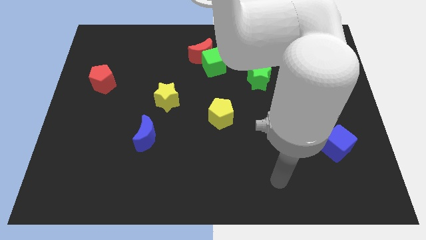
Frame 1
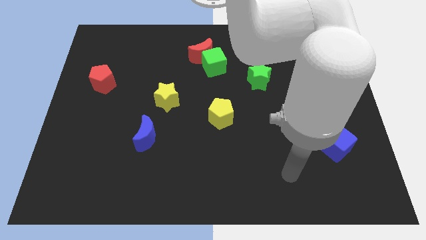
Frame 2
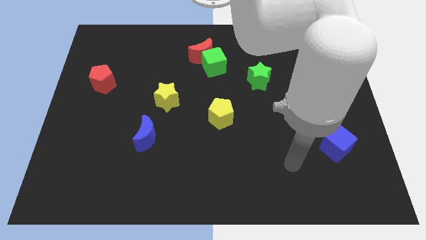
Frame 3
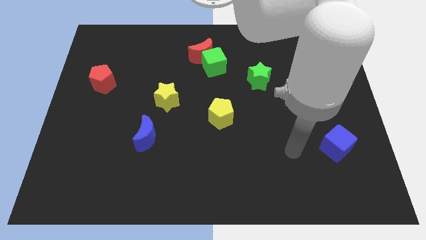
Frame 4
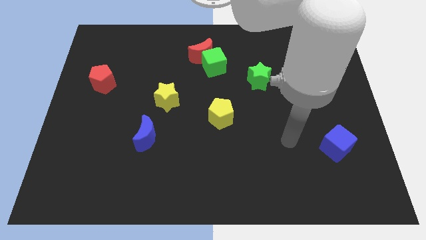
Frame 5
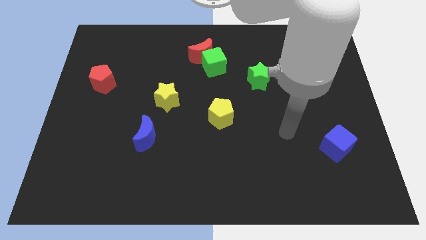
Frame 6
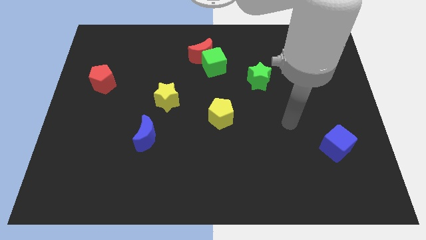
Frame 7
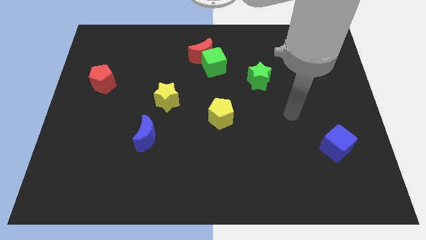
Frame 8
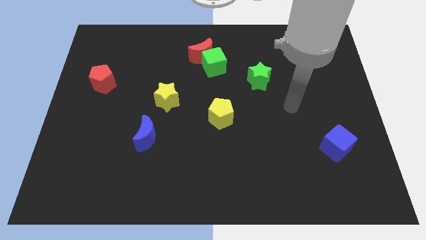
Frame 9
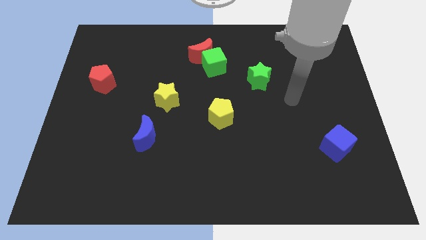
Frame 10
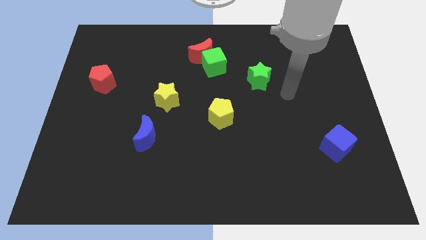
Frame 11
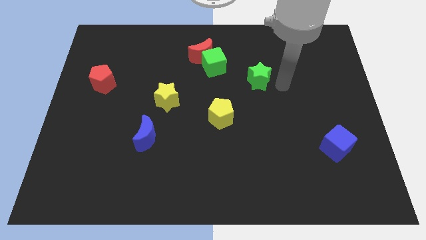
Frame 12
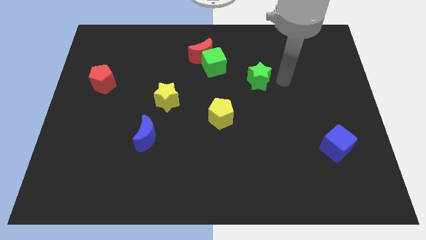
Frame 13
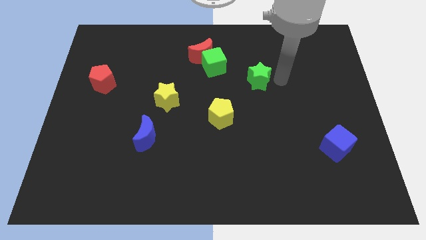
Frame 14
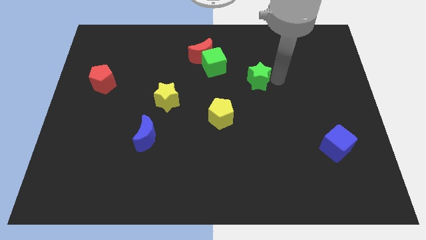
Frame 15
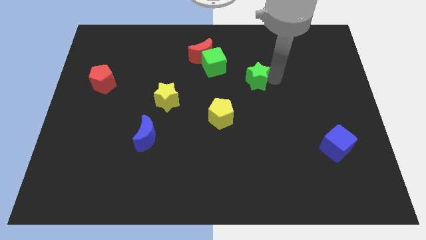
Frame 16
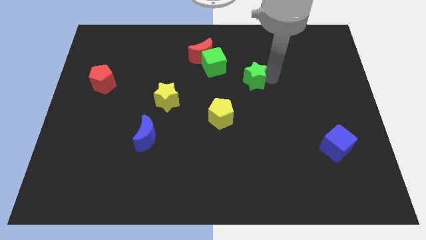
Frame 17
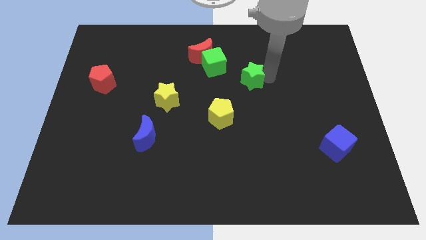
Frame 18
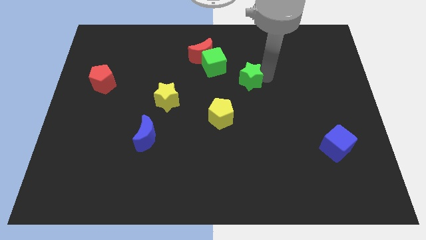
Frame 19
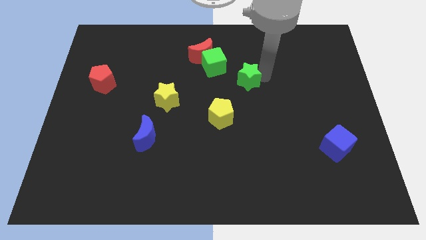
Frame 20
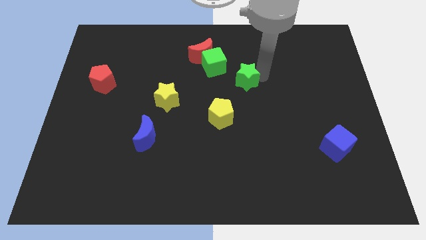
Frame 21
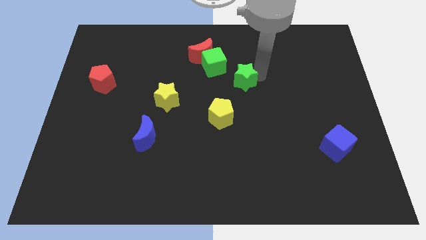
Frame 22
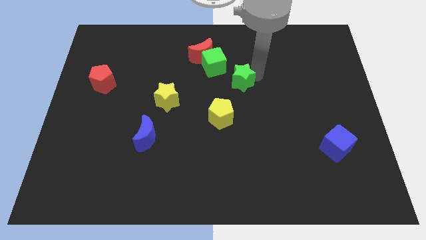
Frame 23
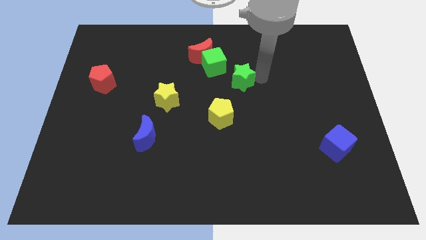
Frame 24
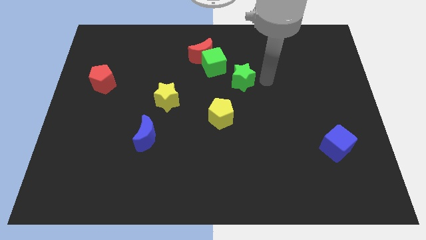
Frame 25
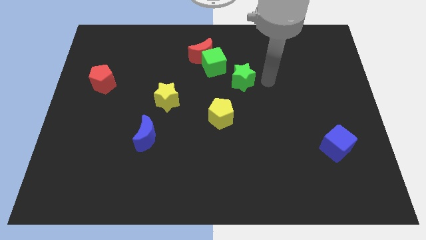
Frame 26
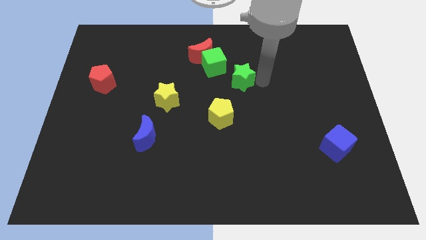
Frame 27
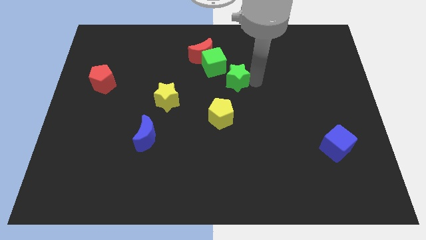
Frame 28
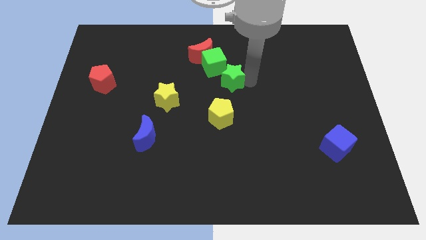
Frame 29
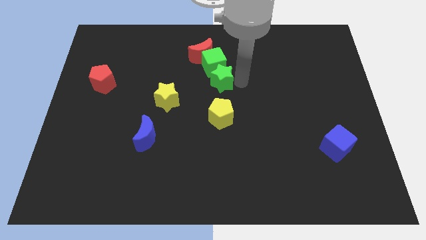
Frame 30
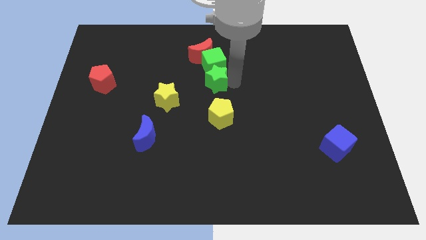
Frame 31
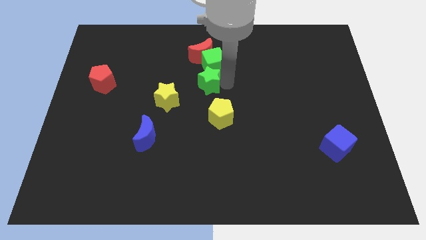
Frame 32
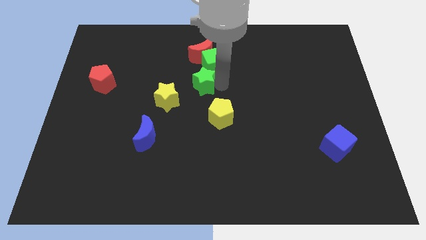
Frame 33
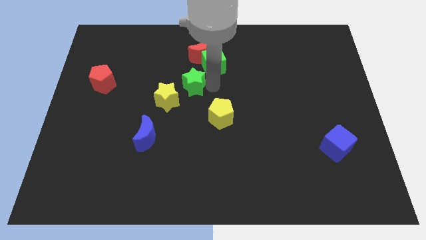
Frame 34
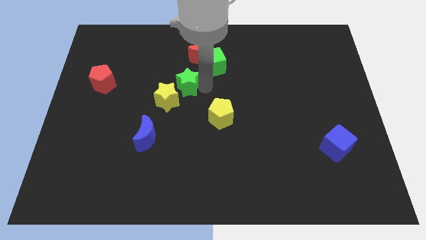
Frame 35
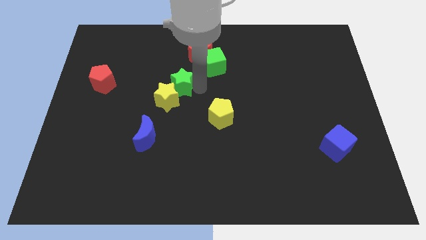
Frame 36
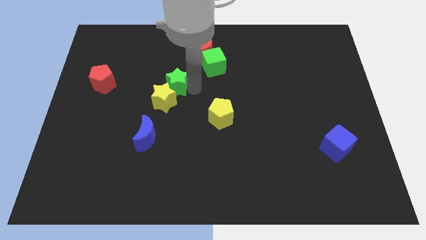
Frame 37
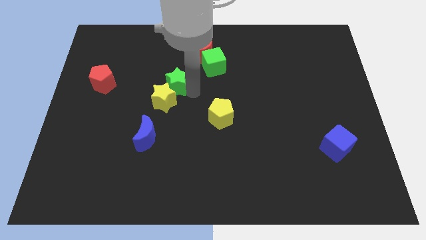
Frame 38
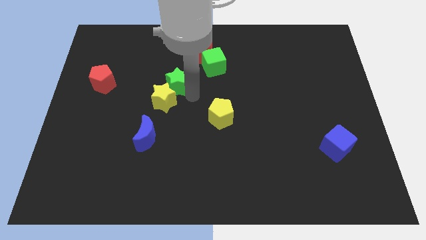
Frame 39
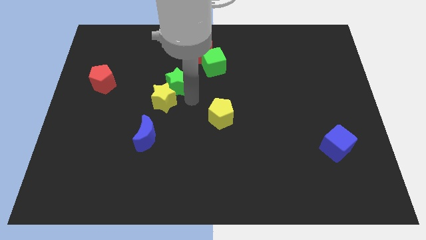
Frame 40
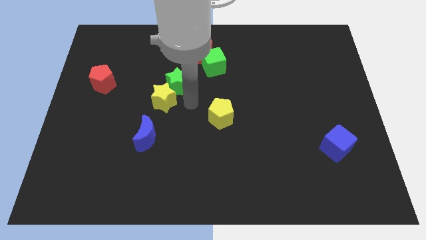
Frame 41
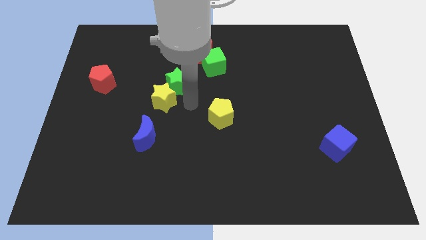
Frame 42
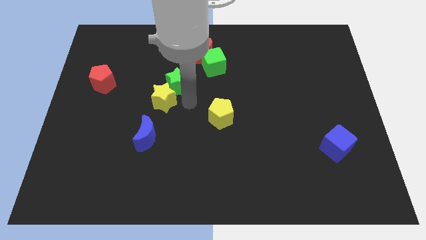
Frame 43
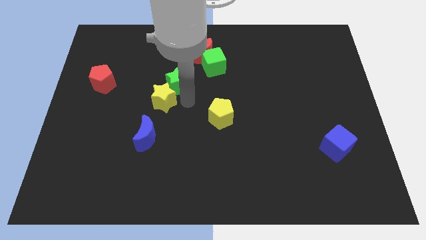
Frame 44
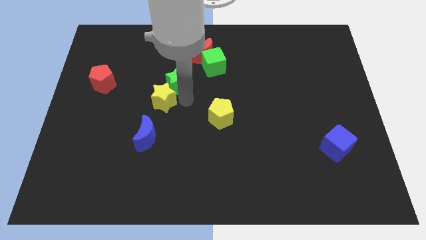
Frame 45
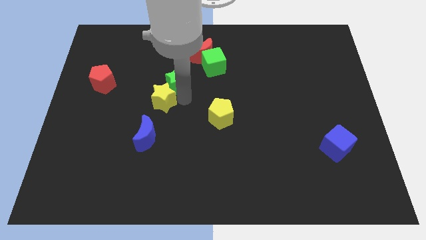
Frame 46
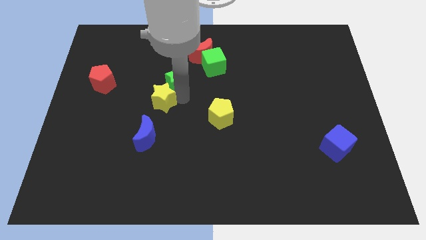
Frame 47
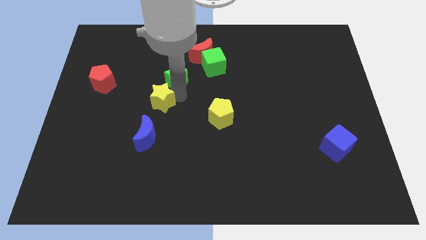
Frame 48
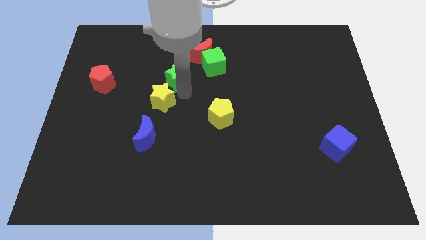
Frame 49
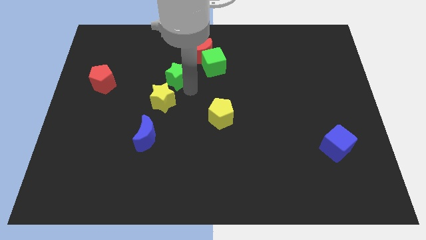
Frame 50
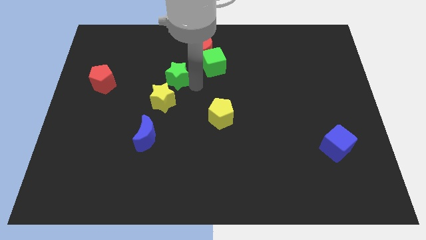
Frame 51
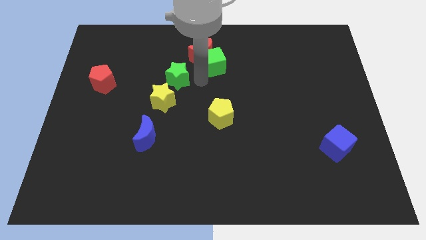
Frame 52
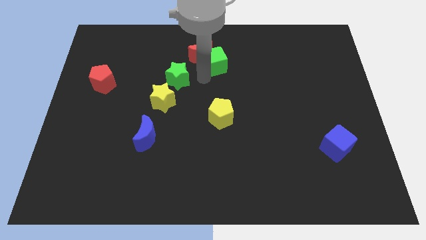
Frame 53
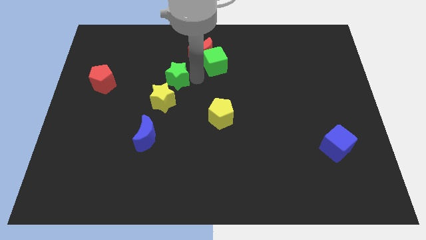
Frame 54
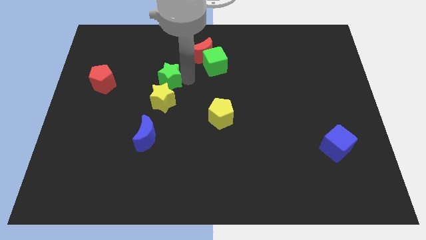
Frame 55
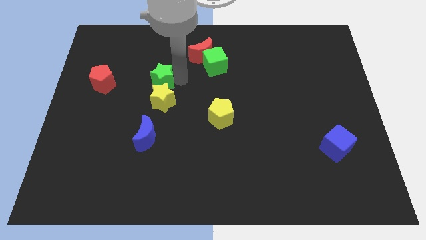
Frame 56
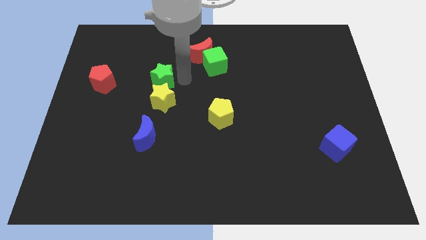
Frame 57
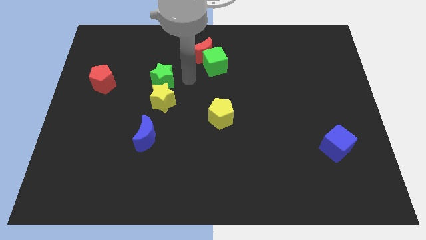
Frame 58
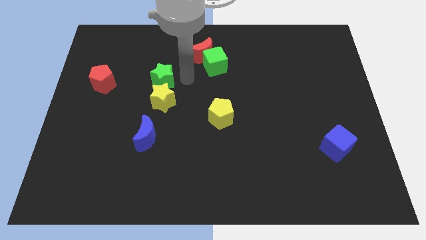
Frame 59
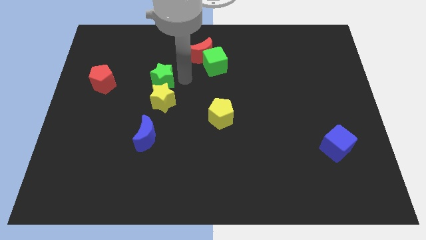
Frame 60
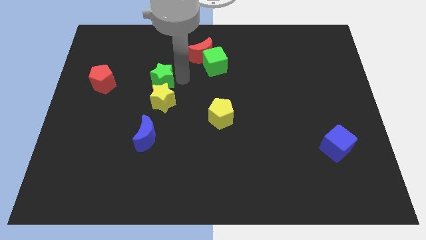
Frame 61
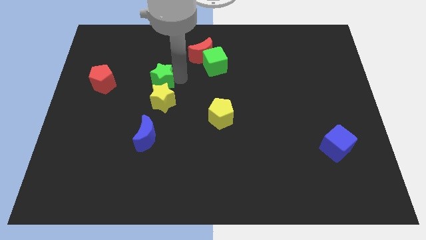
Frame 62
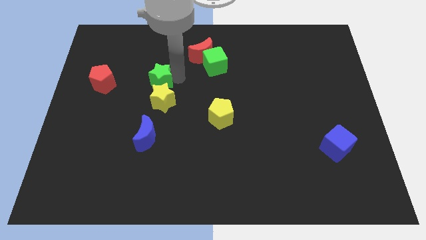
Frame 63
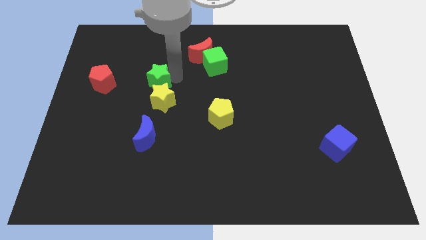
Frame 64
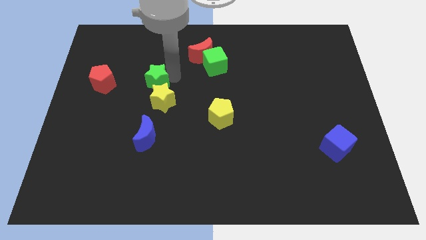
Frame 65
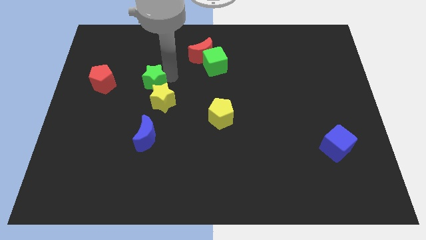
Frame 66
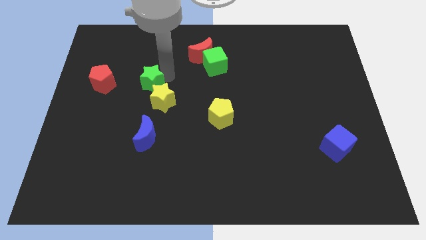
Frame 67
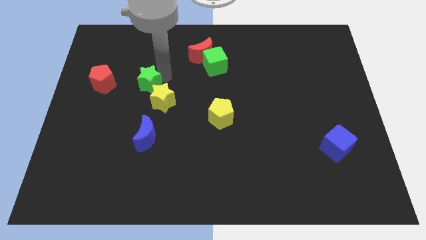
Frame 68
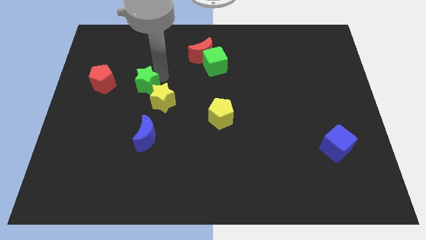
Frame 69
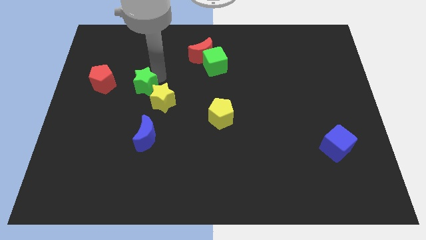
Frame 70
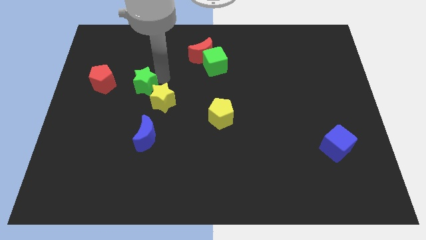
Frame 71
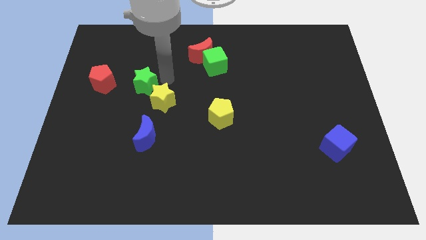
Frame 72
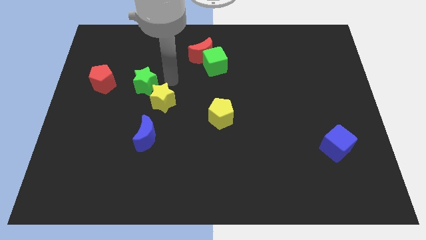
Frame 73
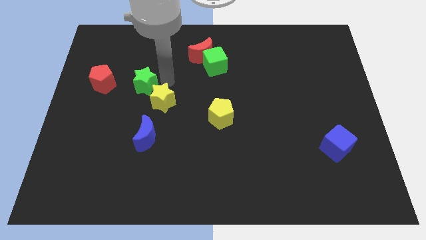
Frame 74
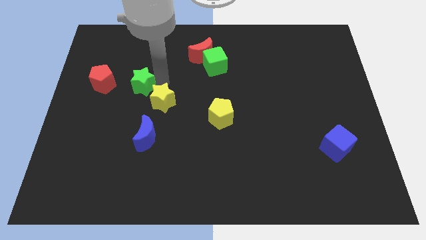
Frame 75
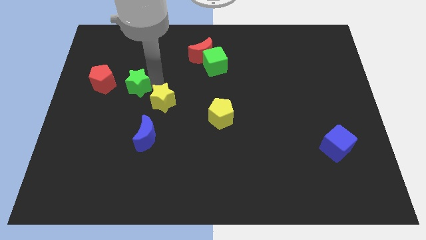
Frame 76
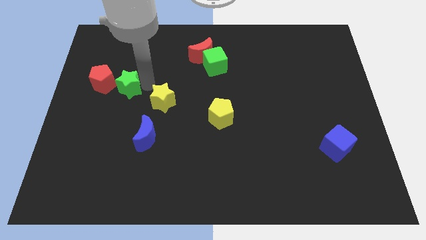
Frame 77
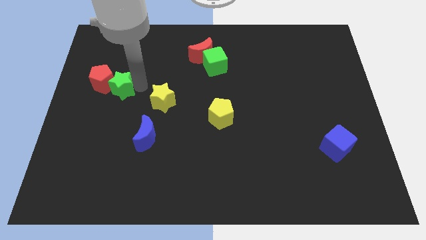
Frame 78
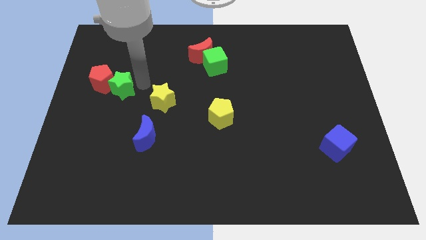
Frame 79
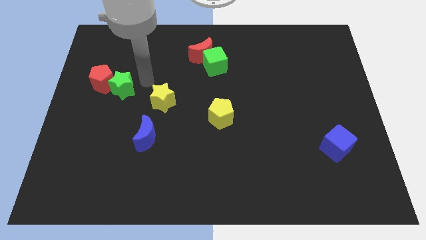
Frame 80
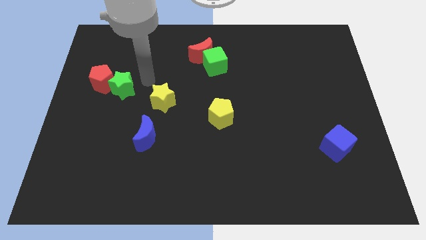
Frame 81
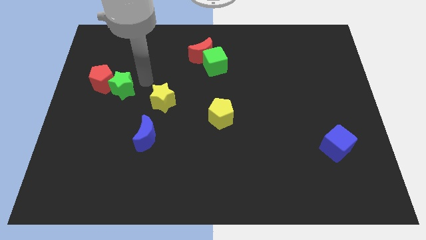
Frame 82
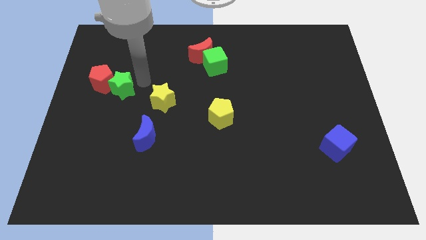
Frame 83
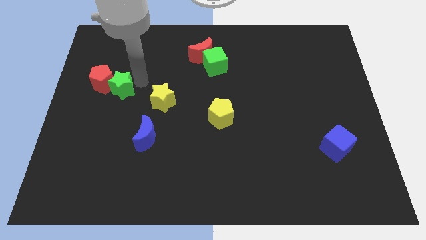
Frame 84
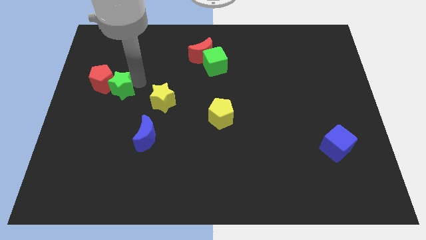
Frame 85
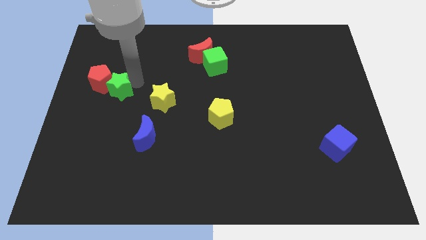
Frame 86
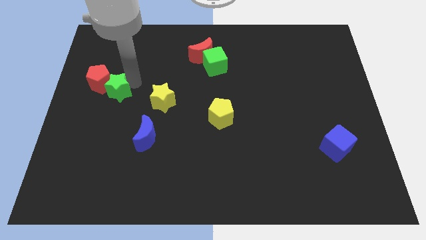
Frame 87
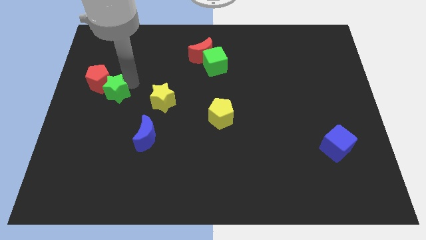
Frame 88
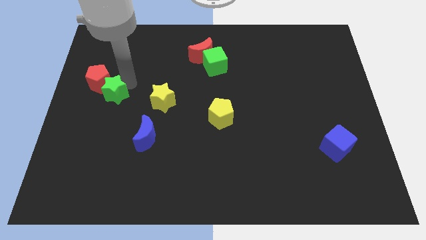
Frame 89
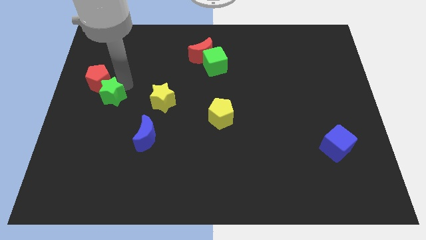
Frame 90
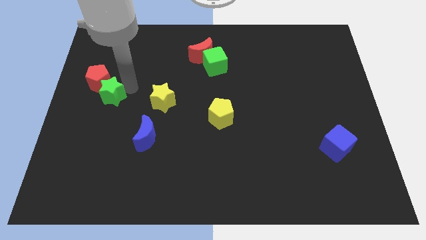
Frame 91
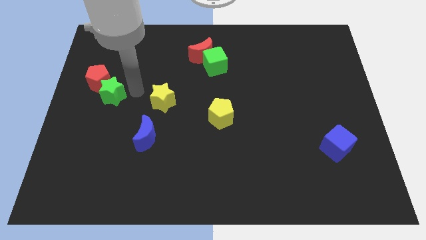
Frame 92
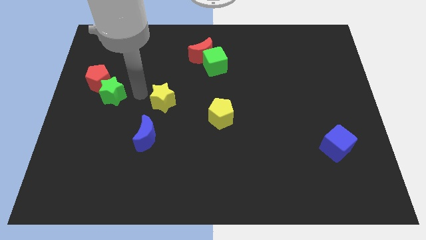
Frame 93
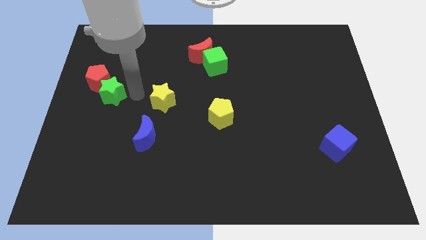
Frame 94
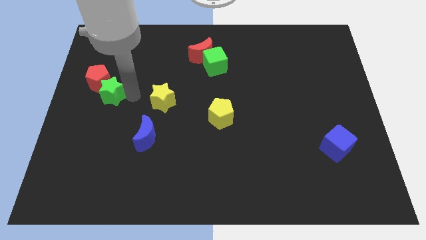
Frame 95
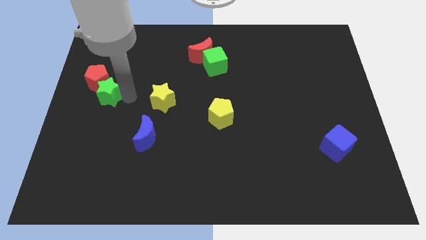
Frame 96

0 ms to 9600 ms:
put the green star to the left side of the board
